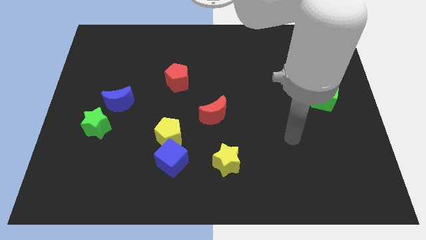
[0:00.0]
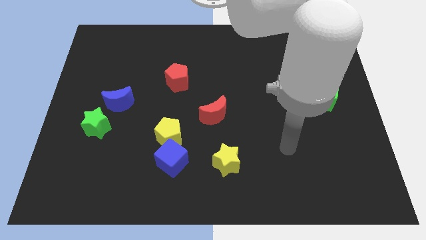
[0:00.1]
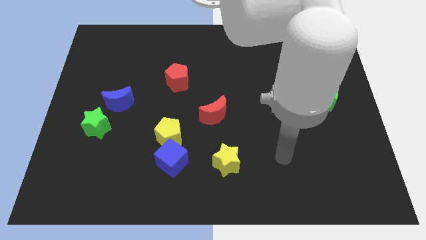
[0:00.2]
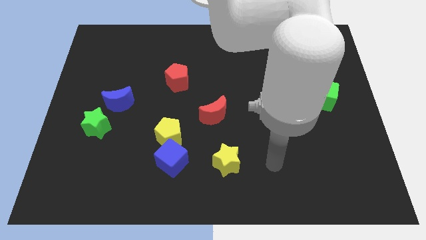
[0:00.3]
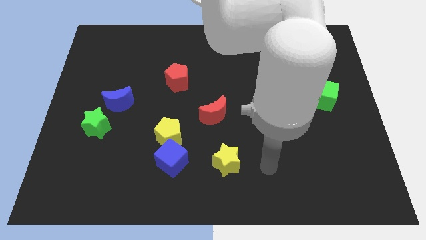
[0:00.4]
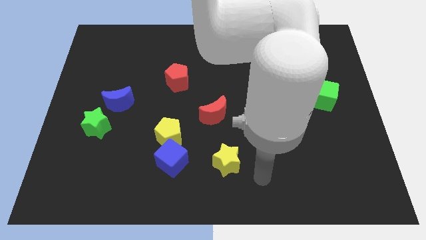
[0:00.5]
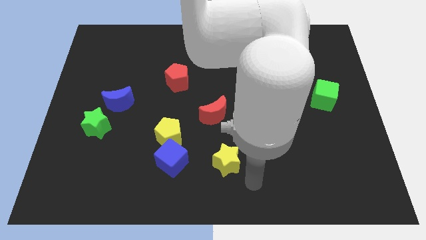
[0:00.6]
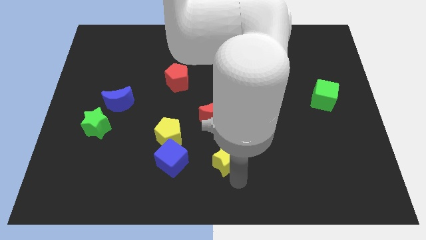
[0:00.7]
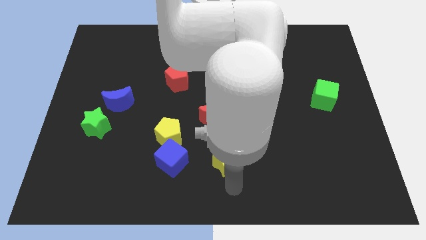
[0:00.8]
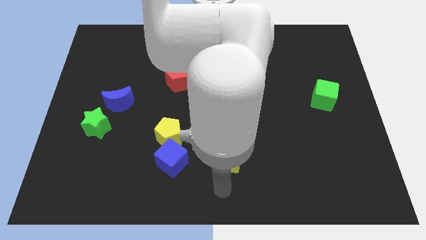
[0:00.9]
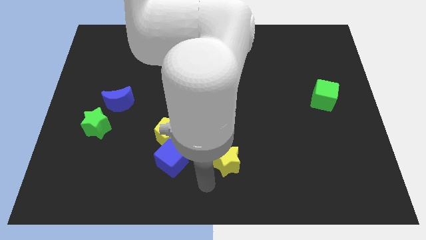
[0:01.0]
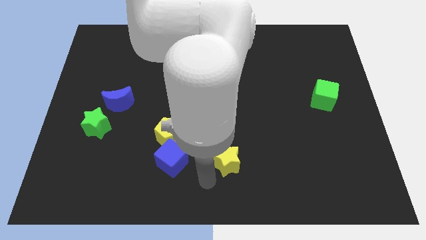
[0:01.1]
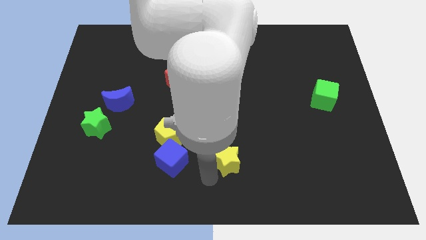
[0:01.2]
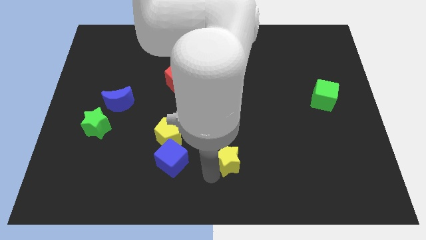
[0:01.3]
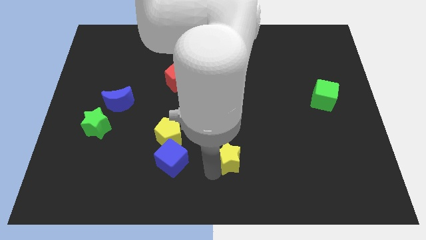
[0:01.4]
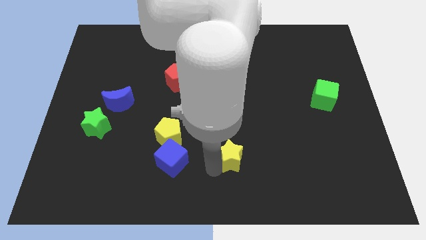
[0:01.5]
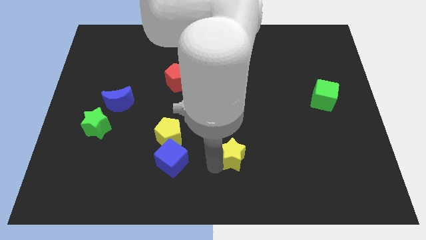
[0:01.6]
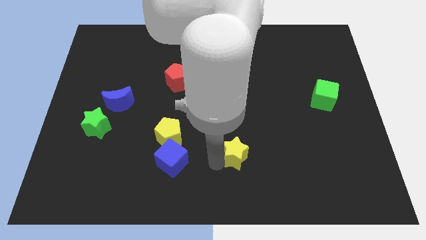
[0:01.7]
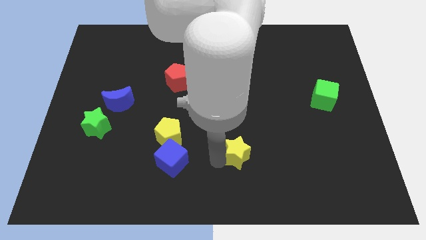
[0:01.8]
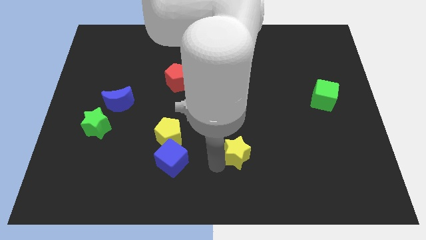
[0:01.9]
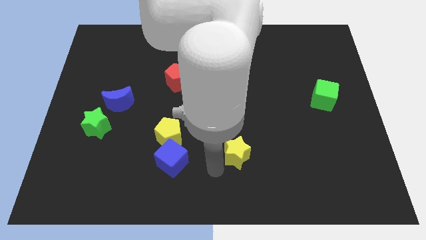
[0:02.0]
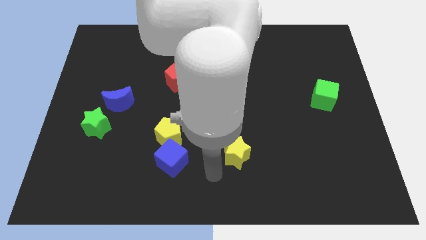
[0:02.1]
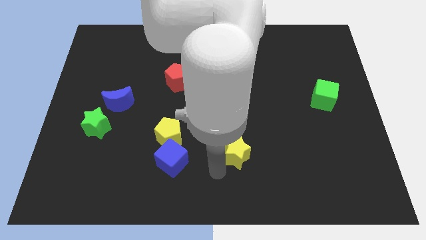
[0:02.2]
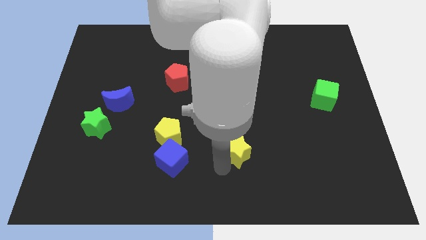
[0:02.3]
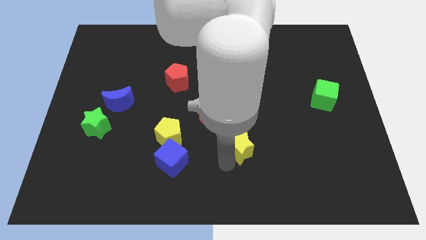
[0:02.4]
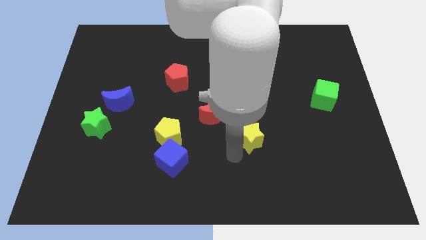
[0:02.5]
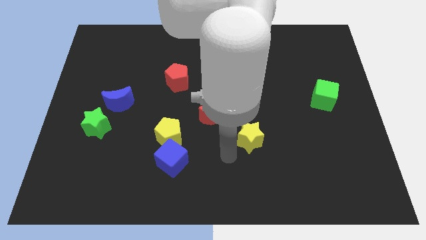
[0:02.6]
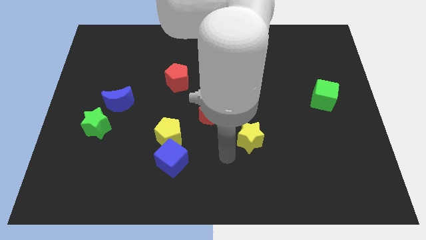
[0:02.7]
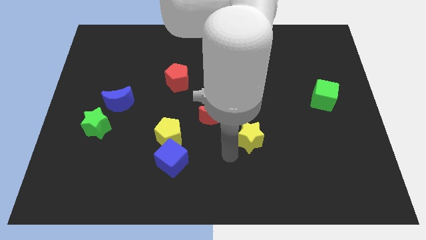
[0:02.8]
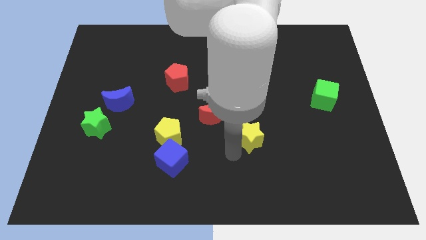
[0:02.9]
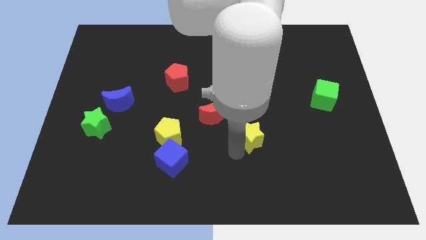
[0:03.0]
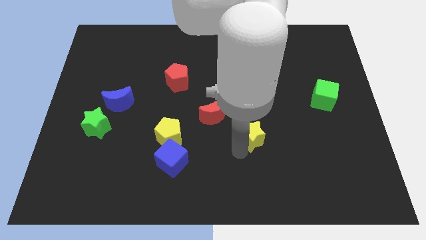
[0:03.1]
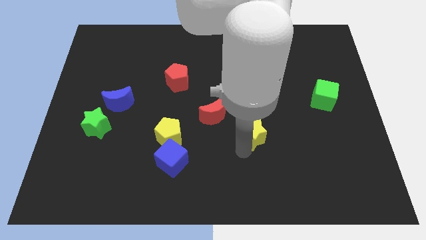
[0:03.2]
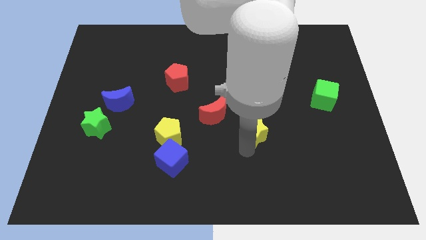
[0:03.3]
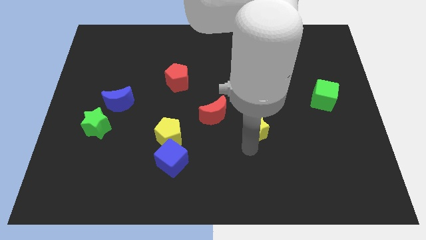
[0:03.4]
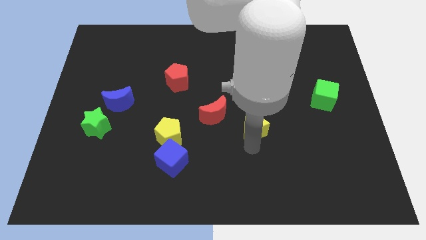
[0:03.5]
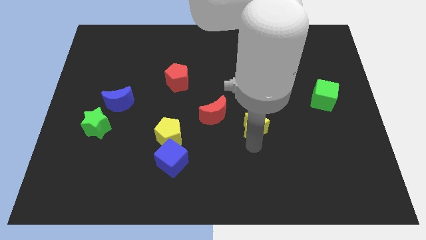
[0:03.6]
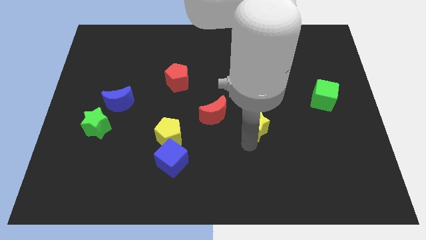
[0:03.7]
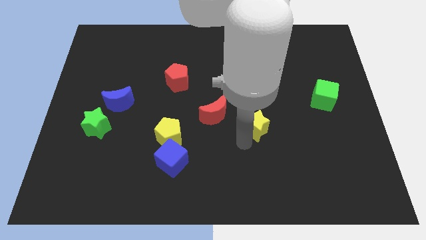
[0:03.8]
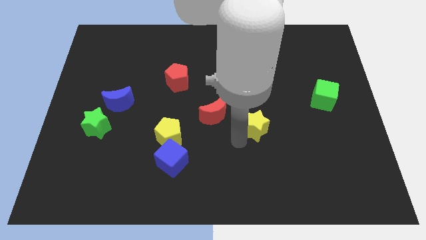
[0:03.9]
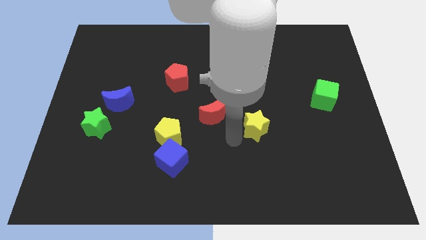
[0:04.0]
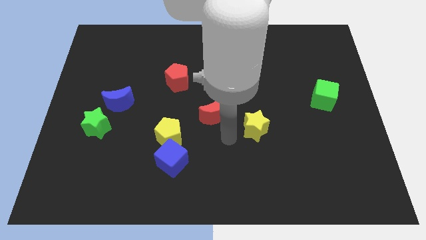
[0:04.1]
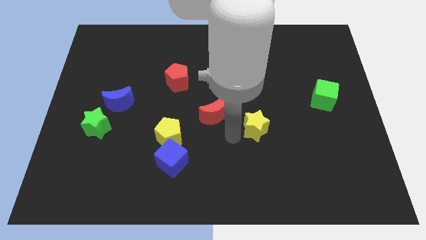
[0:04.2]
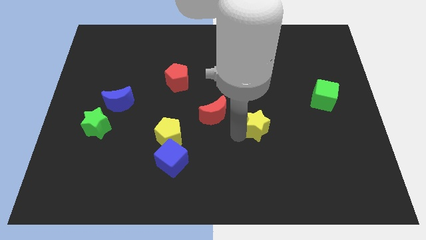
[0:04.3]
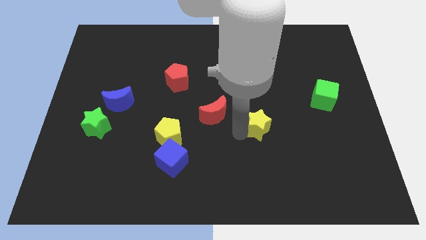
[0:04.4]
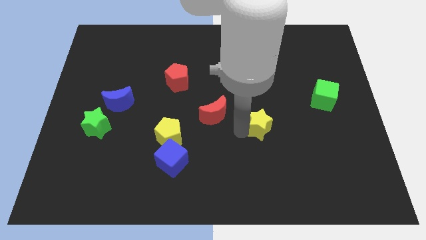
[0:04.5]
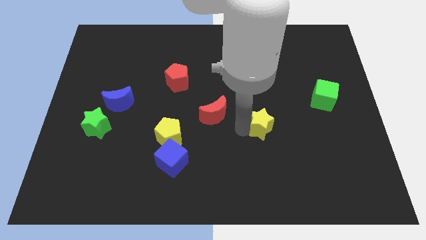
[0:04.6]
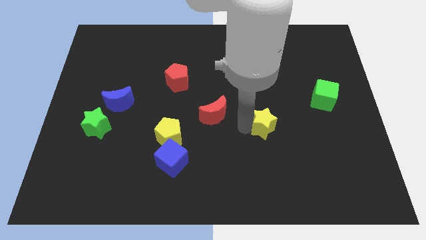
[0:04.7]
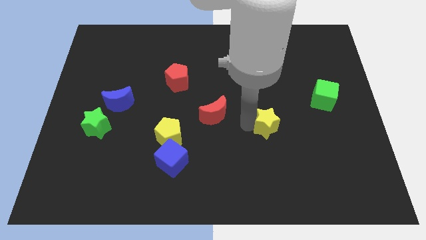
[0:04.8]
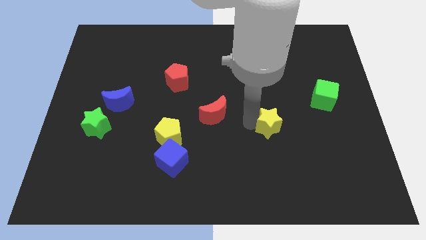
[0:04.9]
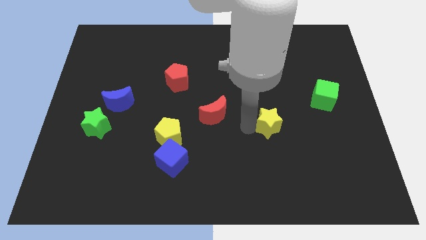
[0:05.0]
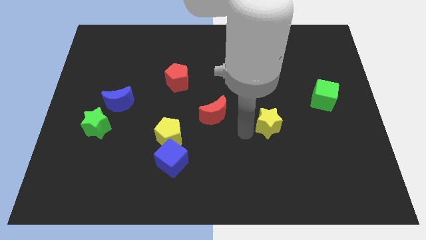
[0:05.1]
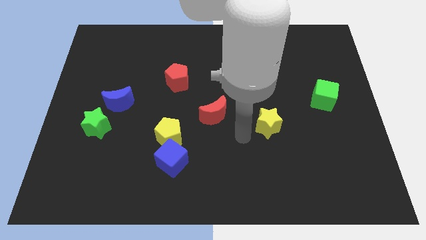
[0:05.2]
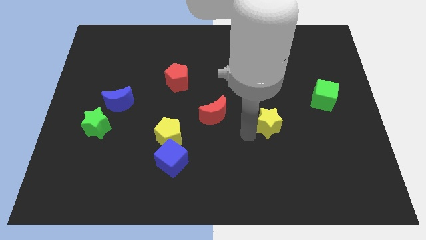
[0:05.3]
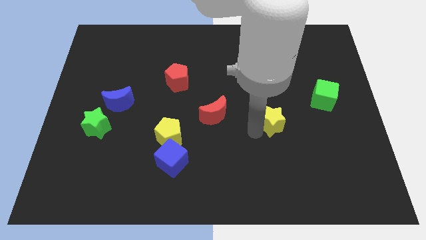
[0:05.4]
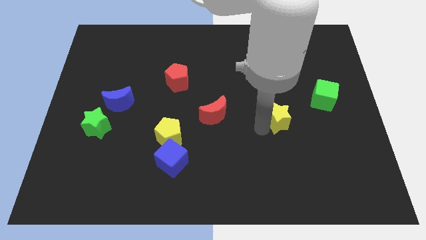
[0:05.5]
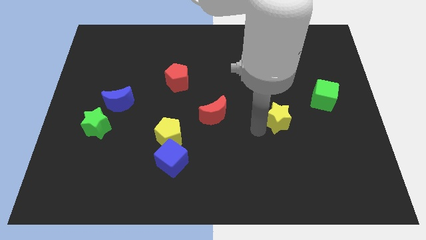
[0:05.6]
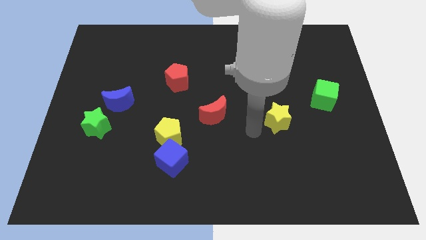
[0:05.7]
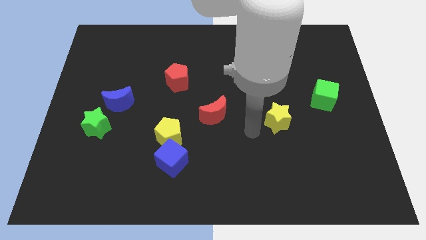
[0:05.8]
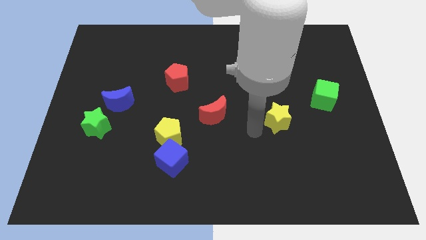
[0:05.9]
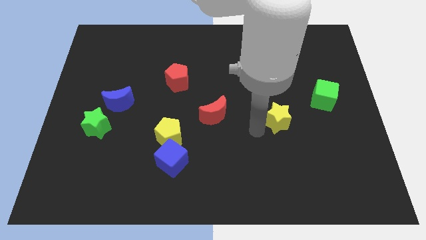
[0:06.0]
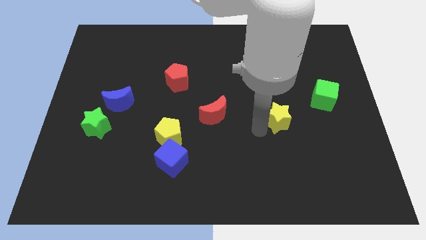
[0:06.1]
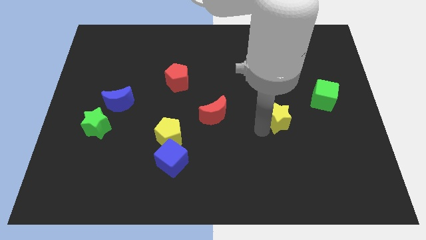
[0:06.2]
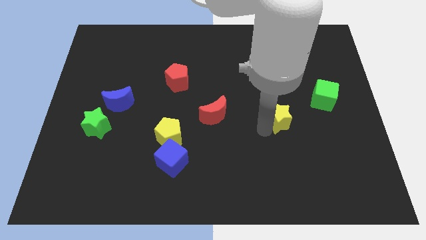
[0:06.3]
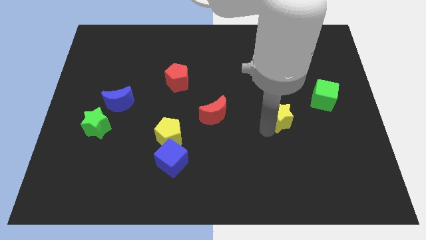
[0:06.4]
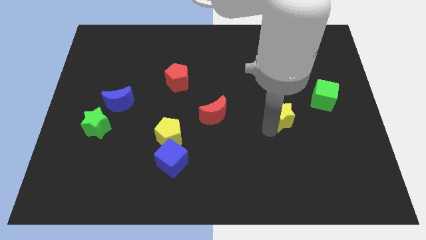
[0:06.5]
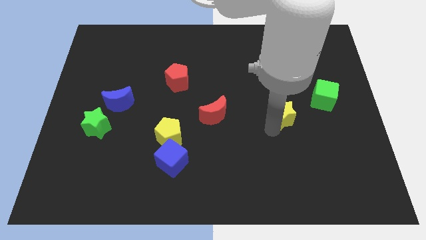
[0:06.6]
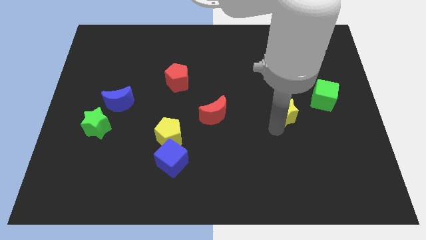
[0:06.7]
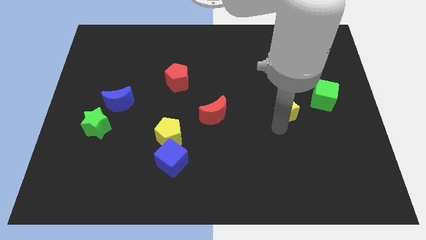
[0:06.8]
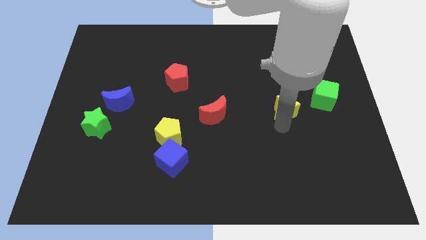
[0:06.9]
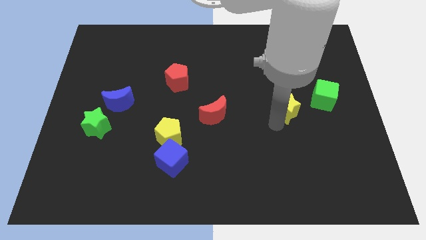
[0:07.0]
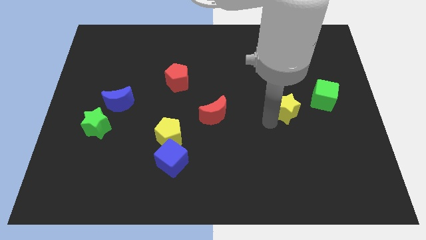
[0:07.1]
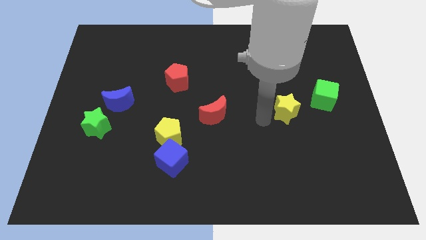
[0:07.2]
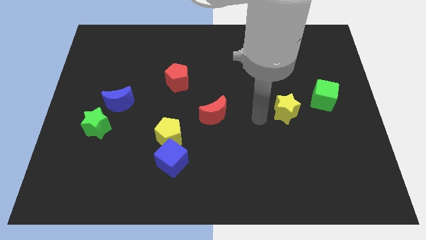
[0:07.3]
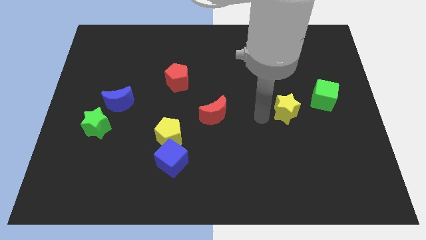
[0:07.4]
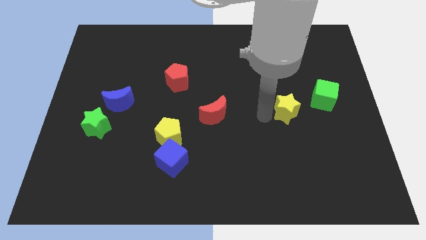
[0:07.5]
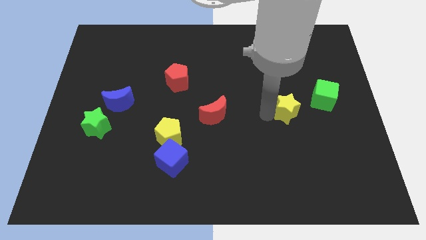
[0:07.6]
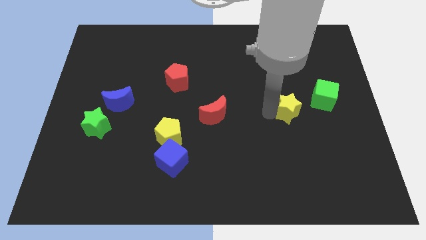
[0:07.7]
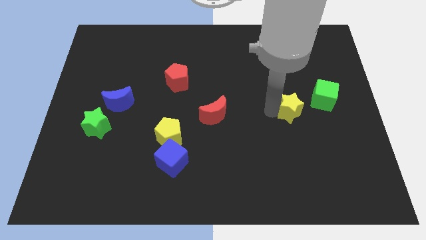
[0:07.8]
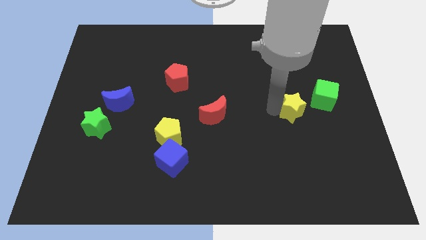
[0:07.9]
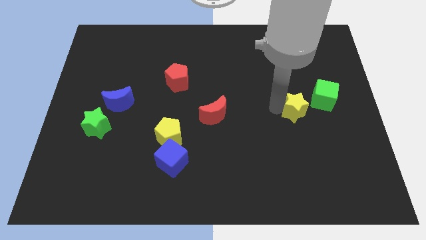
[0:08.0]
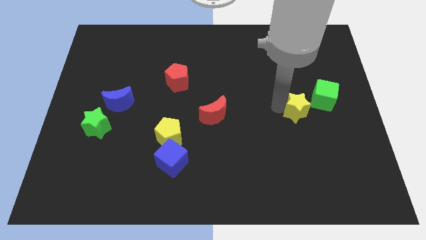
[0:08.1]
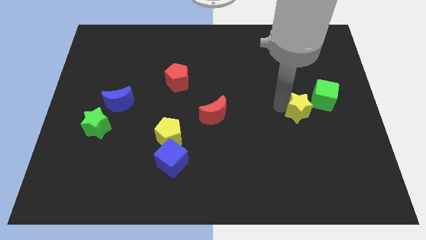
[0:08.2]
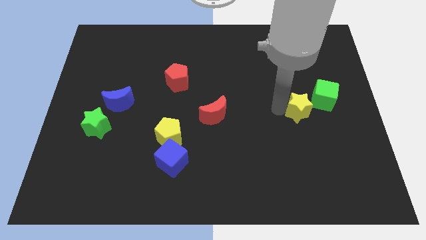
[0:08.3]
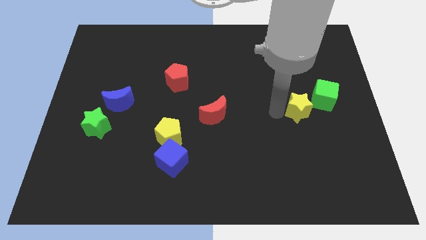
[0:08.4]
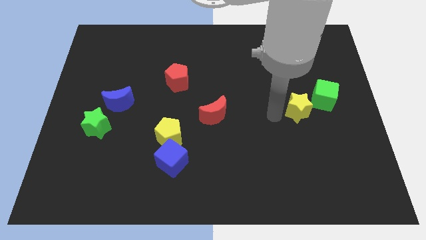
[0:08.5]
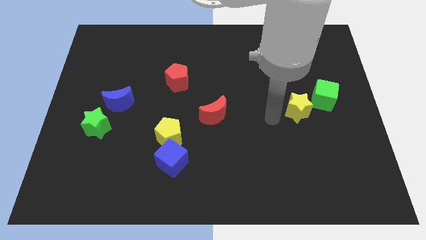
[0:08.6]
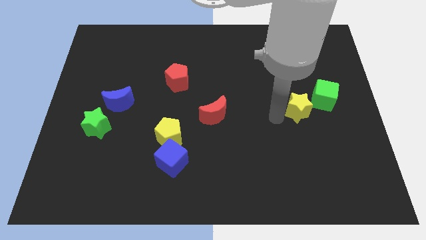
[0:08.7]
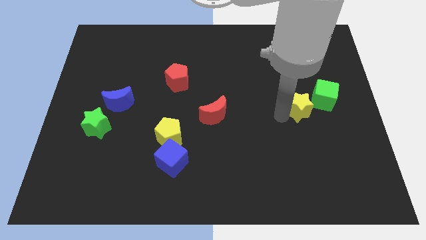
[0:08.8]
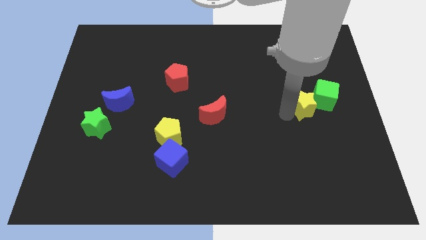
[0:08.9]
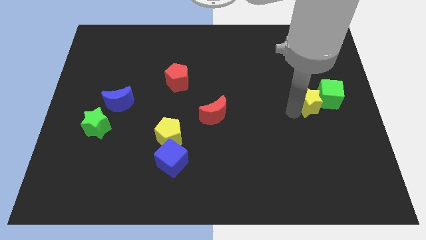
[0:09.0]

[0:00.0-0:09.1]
push the yellow star close to the green cube
